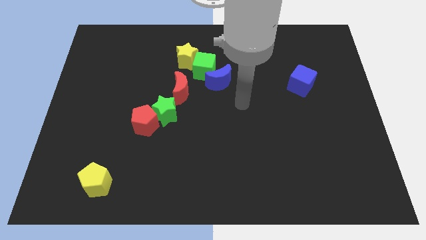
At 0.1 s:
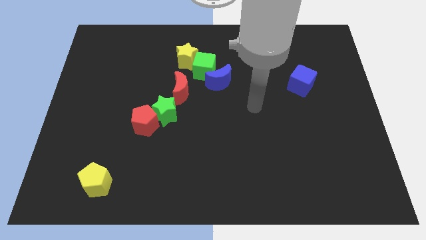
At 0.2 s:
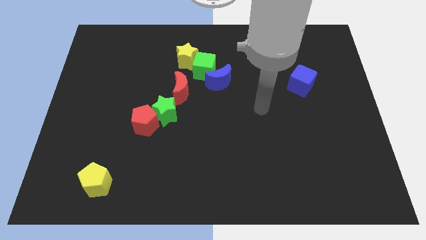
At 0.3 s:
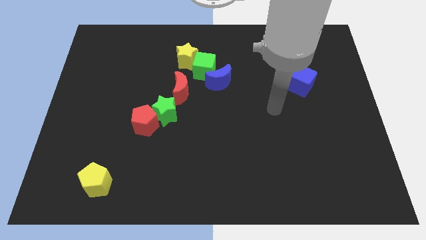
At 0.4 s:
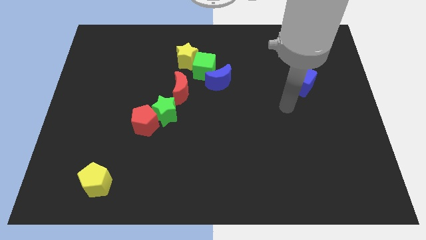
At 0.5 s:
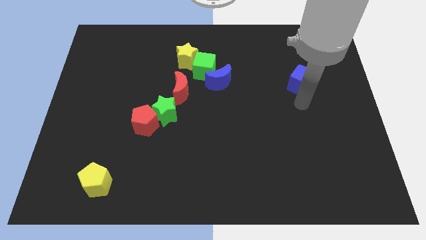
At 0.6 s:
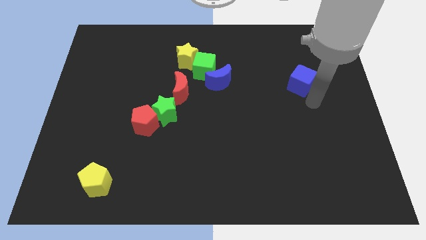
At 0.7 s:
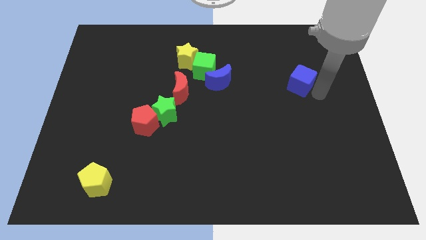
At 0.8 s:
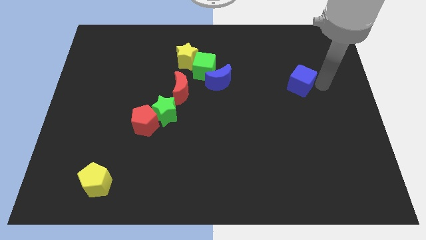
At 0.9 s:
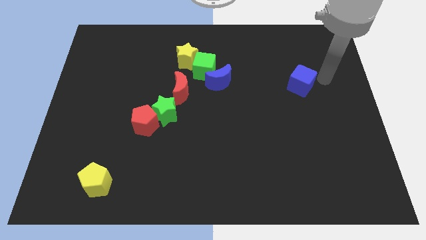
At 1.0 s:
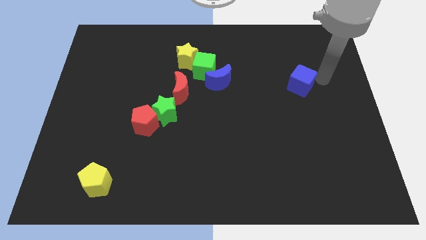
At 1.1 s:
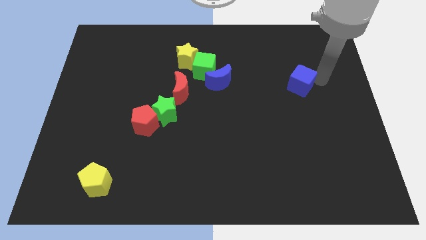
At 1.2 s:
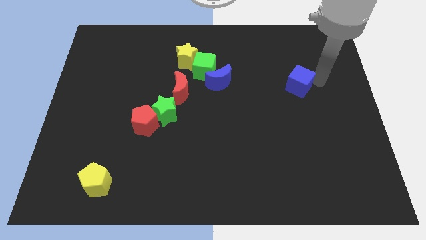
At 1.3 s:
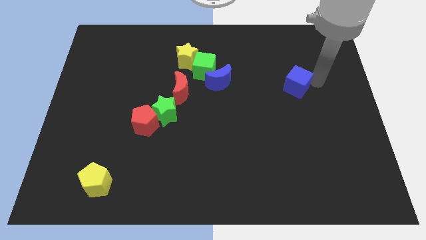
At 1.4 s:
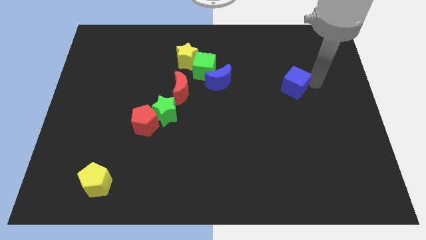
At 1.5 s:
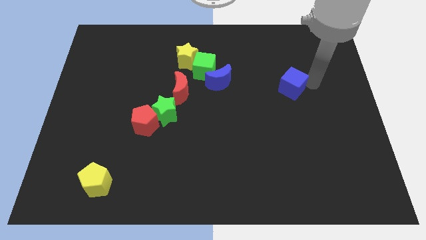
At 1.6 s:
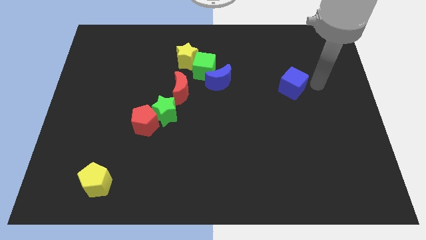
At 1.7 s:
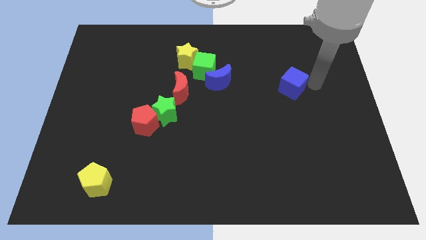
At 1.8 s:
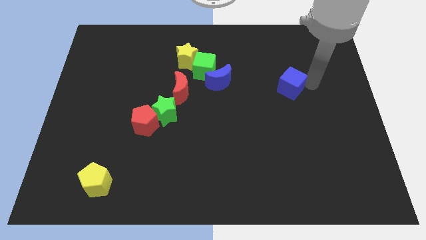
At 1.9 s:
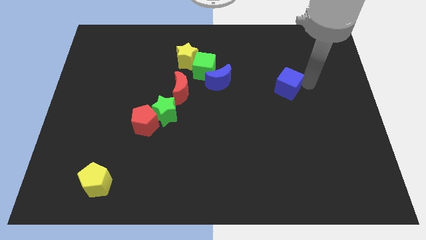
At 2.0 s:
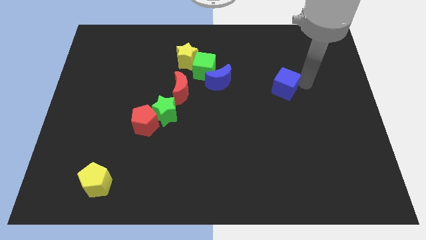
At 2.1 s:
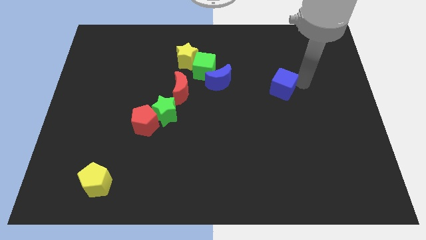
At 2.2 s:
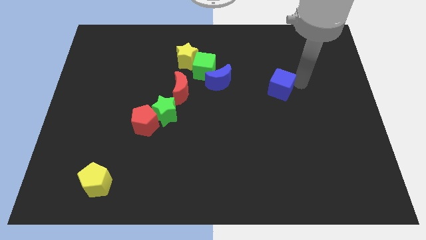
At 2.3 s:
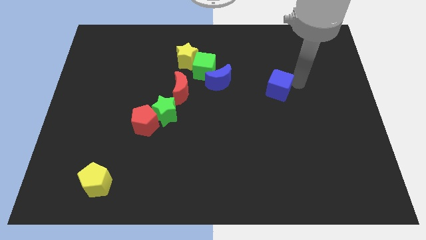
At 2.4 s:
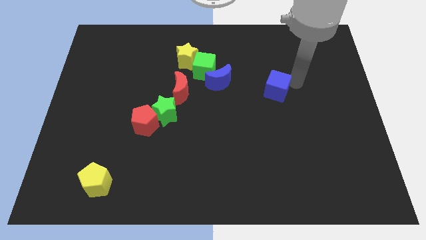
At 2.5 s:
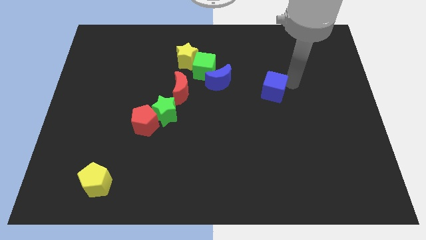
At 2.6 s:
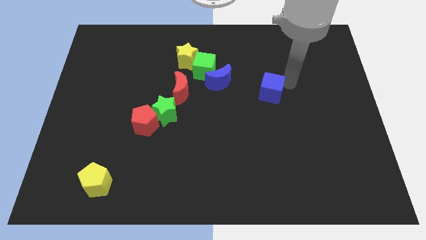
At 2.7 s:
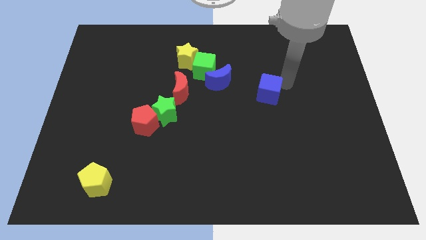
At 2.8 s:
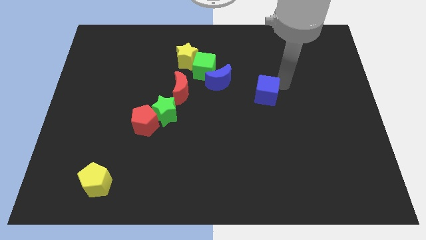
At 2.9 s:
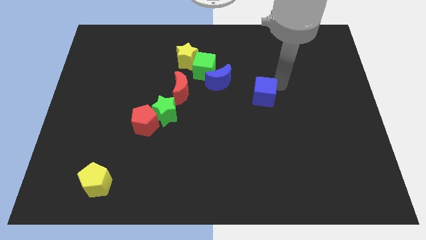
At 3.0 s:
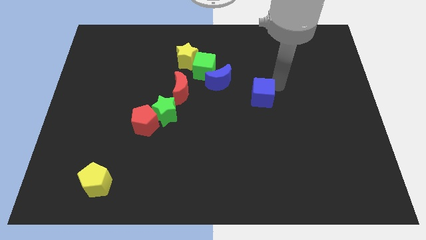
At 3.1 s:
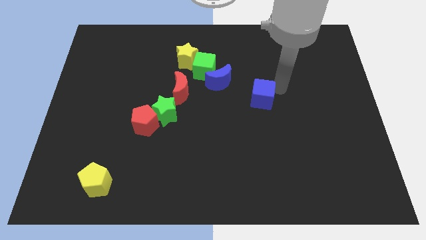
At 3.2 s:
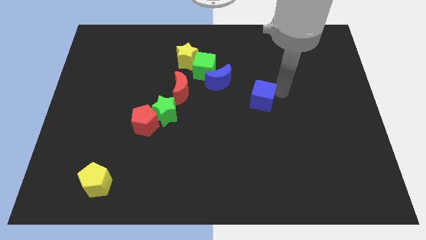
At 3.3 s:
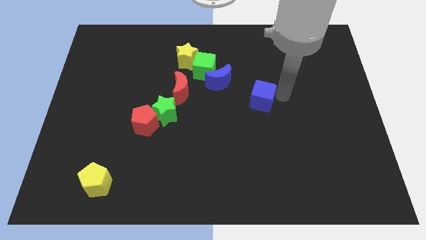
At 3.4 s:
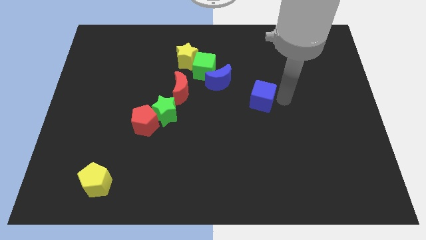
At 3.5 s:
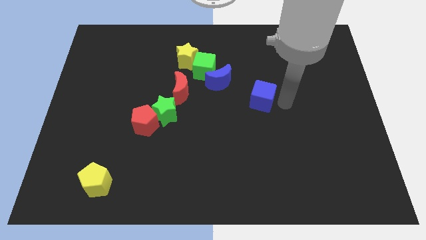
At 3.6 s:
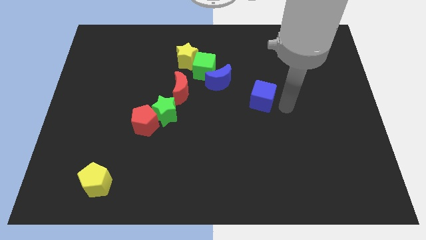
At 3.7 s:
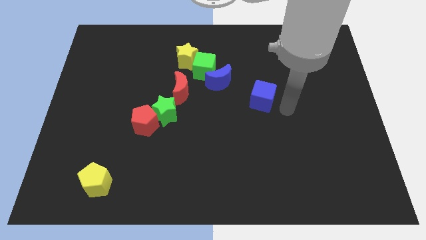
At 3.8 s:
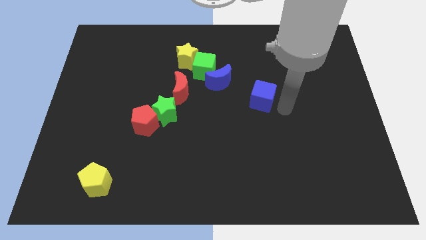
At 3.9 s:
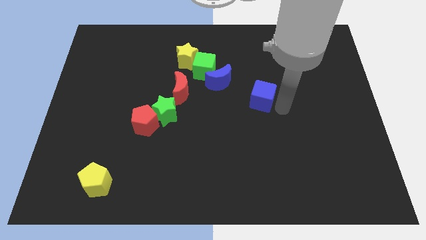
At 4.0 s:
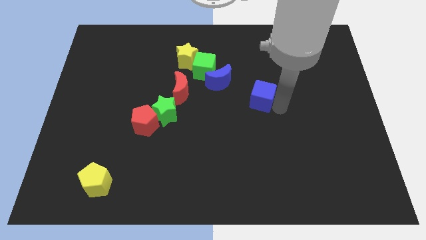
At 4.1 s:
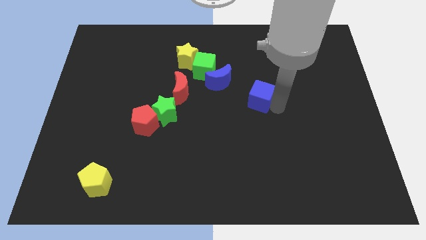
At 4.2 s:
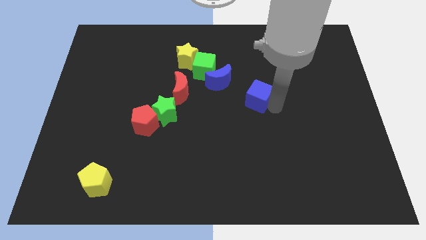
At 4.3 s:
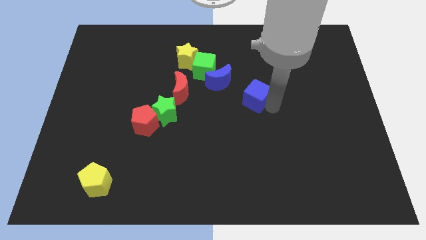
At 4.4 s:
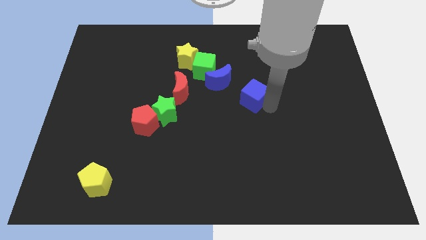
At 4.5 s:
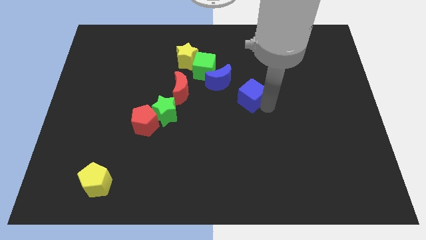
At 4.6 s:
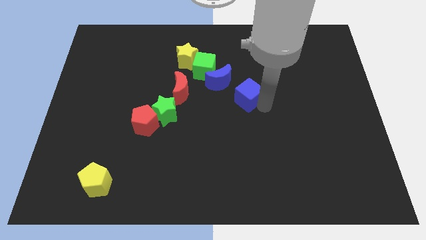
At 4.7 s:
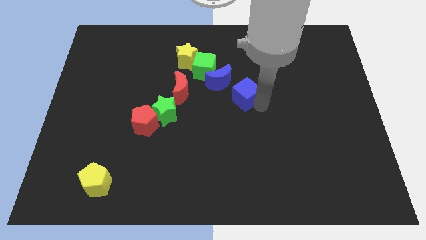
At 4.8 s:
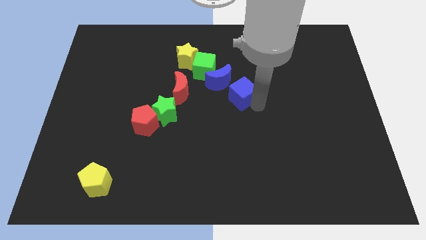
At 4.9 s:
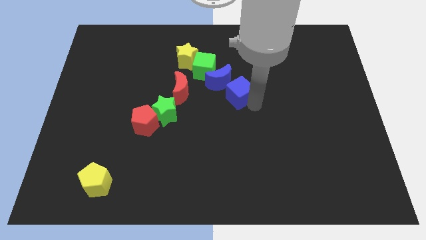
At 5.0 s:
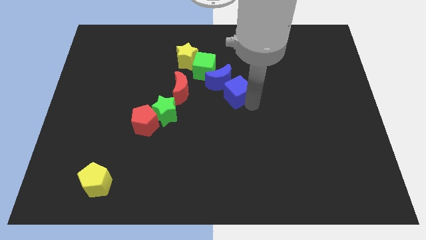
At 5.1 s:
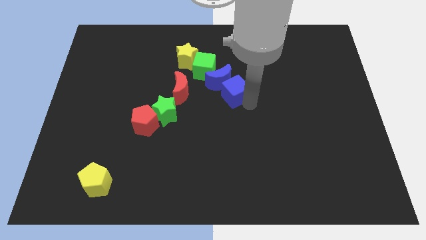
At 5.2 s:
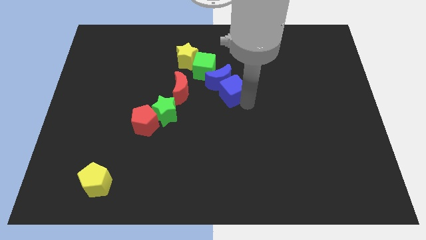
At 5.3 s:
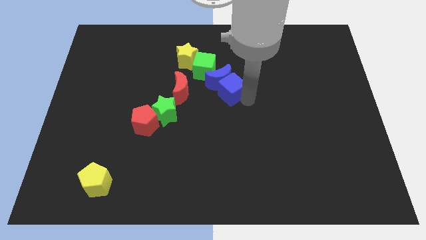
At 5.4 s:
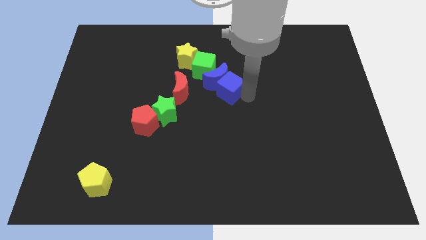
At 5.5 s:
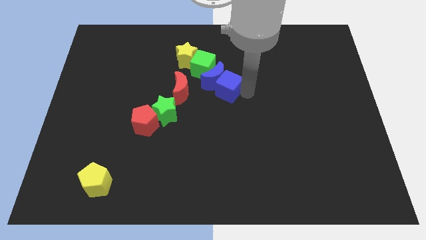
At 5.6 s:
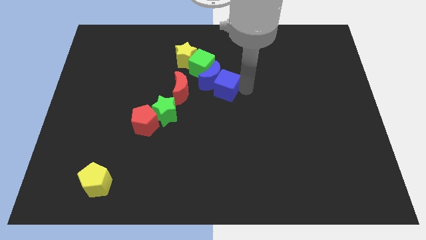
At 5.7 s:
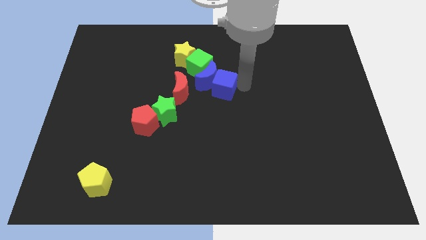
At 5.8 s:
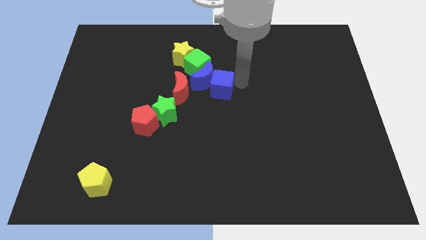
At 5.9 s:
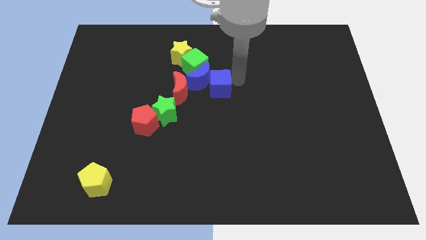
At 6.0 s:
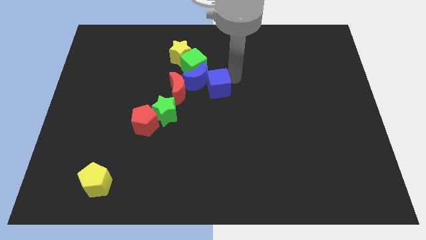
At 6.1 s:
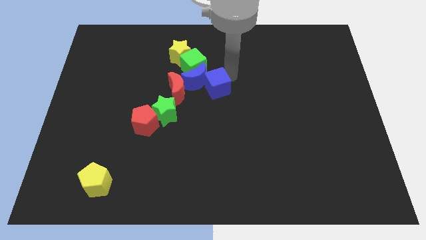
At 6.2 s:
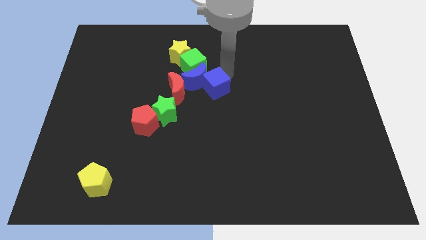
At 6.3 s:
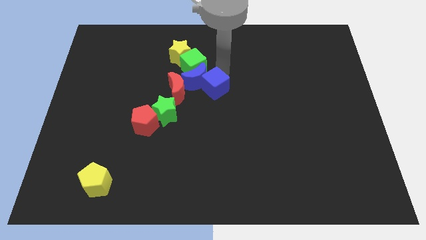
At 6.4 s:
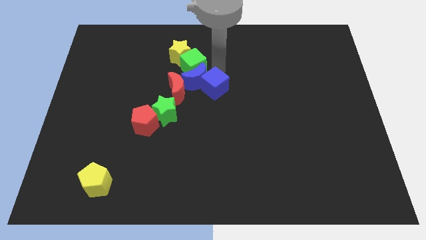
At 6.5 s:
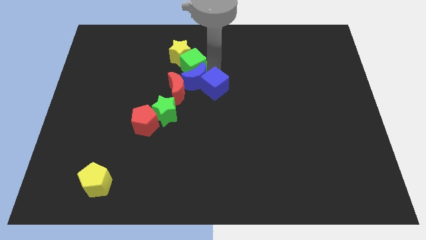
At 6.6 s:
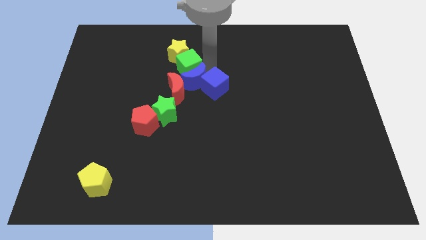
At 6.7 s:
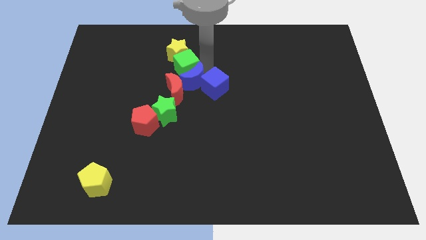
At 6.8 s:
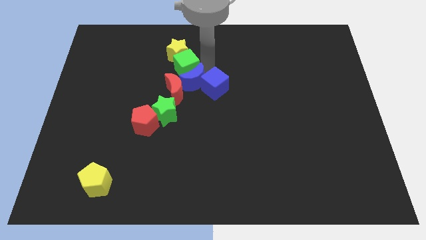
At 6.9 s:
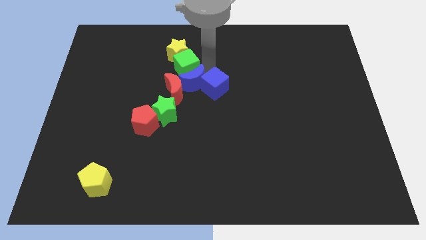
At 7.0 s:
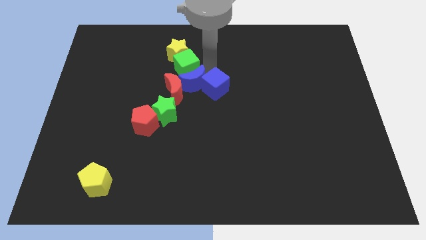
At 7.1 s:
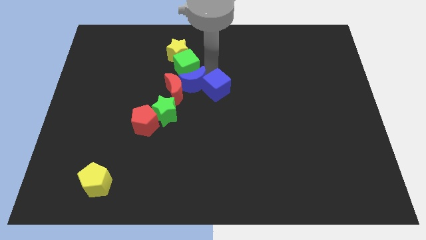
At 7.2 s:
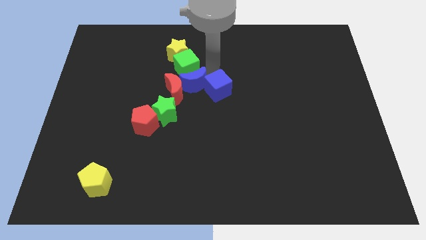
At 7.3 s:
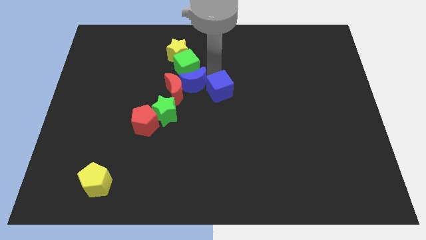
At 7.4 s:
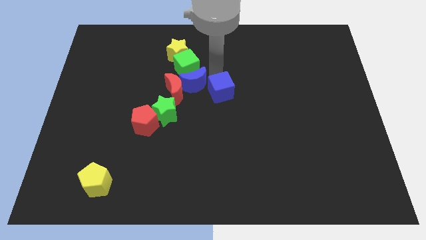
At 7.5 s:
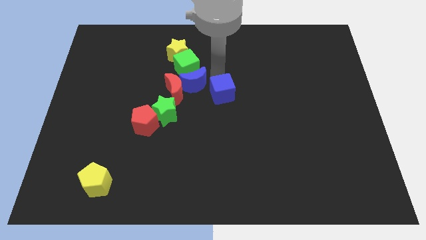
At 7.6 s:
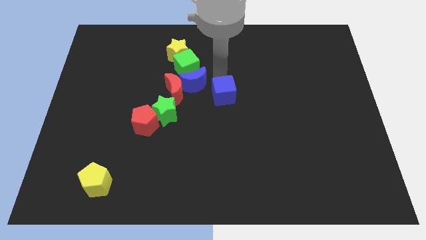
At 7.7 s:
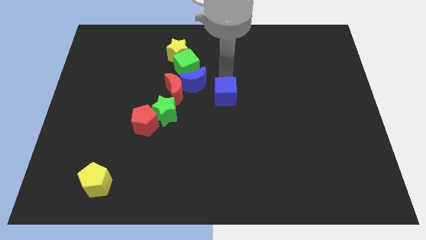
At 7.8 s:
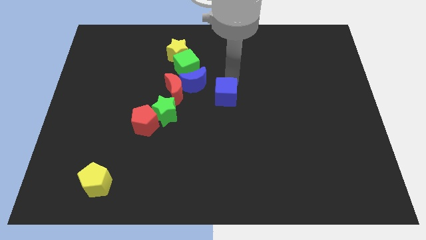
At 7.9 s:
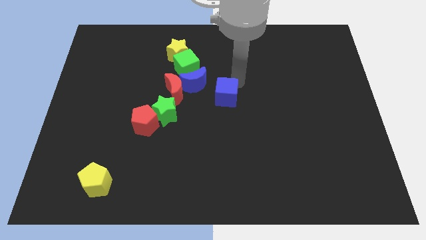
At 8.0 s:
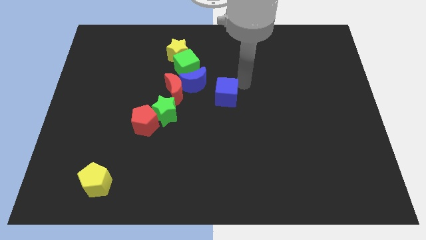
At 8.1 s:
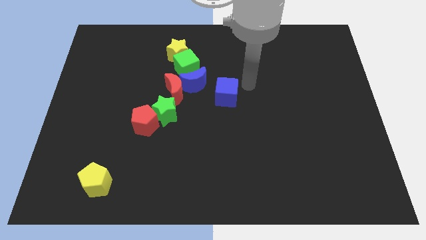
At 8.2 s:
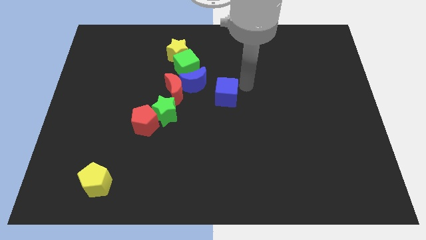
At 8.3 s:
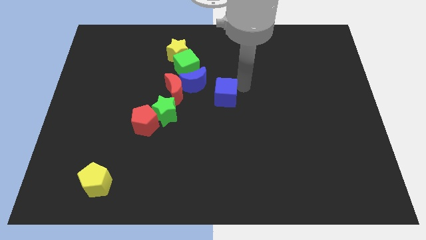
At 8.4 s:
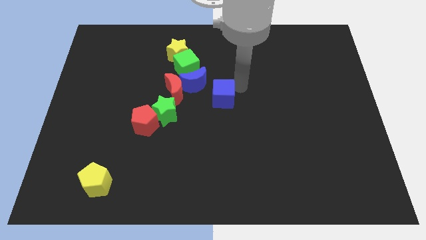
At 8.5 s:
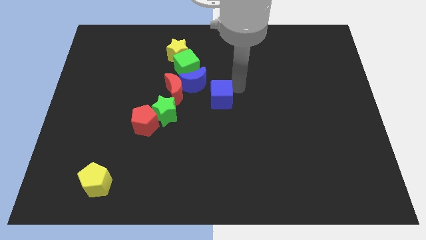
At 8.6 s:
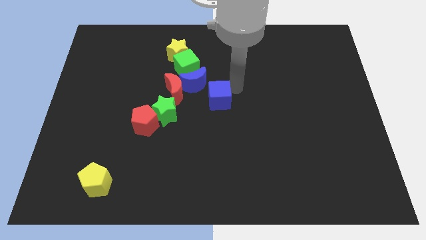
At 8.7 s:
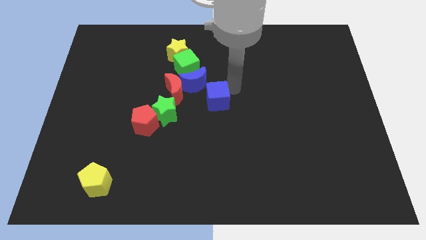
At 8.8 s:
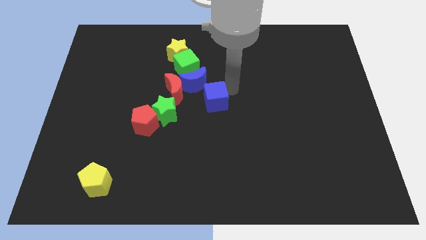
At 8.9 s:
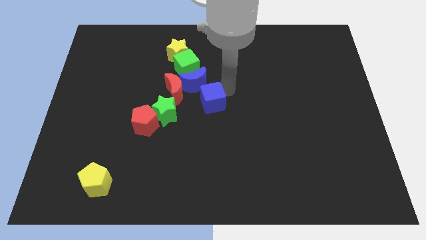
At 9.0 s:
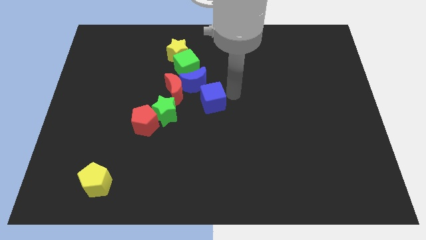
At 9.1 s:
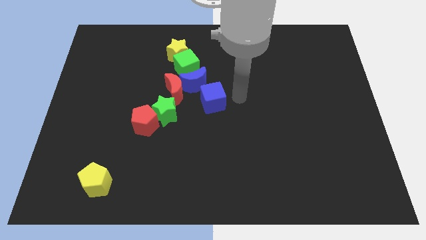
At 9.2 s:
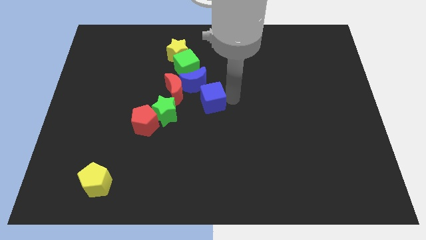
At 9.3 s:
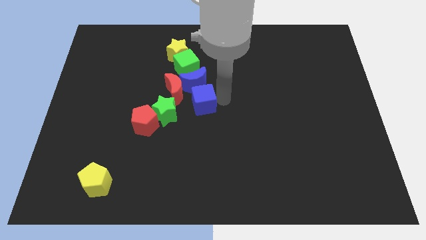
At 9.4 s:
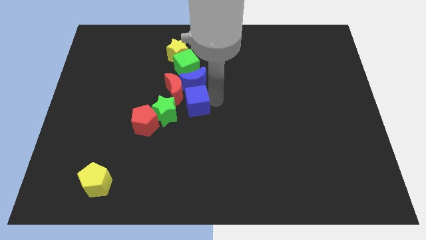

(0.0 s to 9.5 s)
put the blue cube to the bottom left of the blue moon
